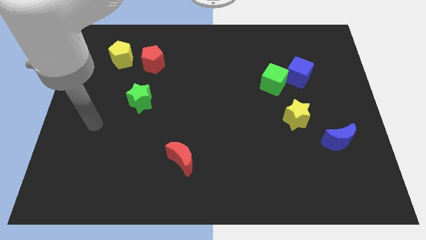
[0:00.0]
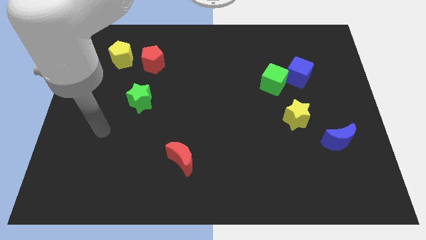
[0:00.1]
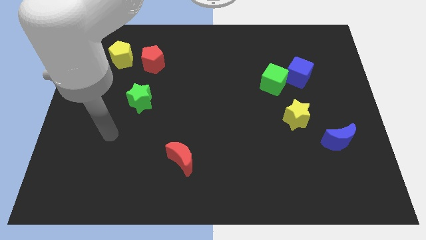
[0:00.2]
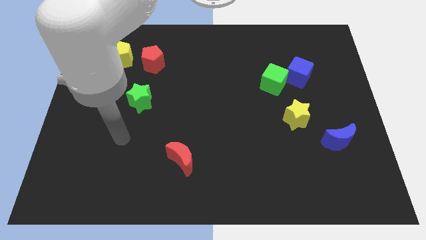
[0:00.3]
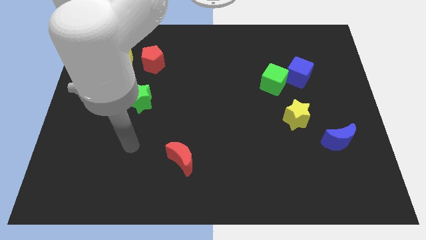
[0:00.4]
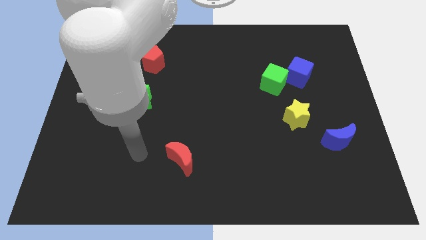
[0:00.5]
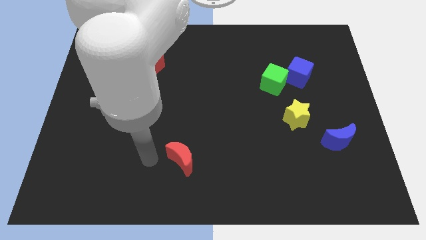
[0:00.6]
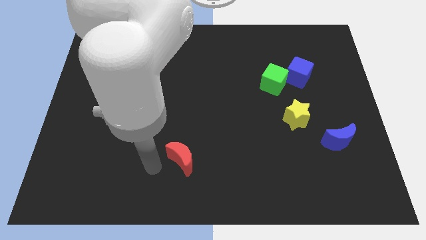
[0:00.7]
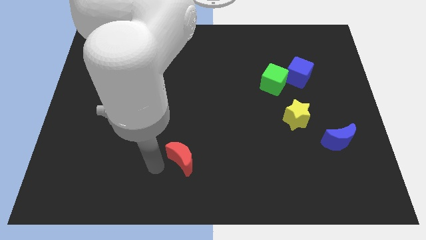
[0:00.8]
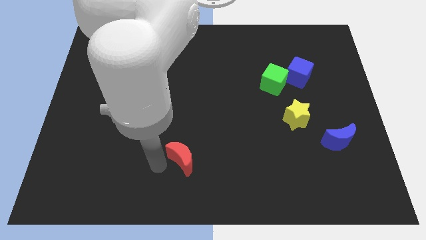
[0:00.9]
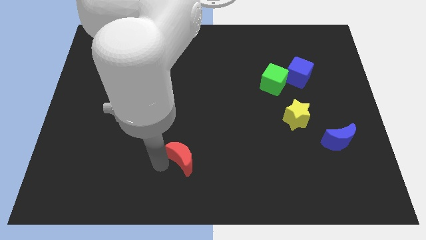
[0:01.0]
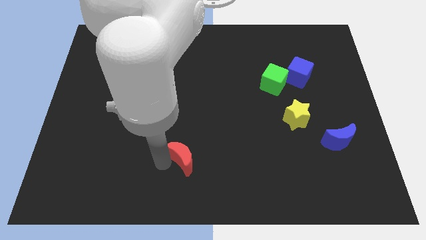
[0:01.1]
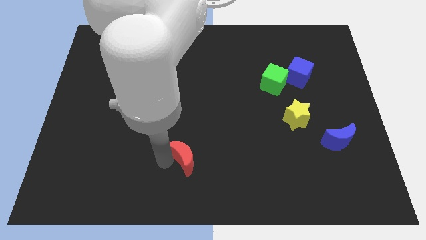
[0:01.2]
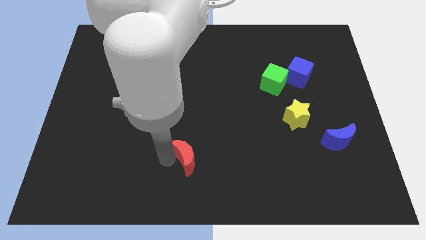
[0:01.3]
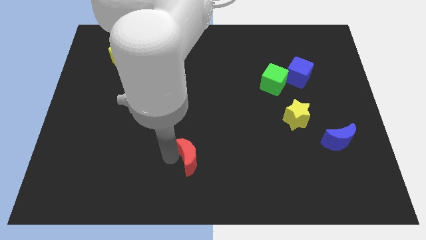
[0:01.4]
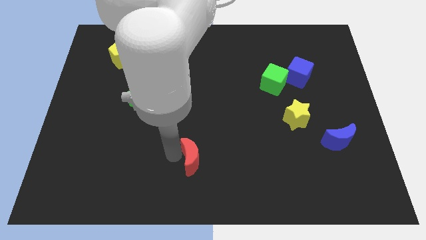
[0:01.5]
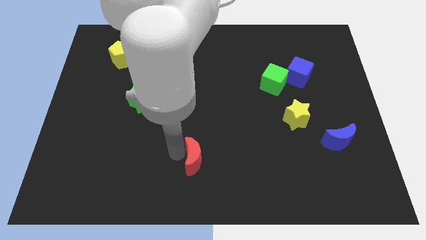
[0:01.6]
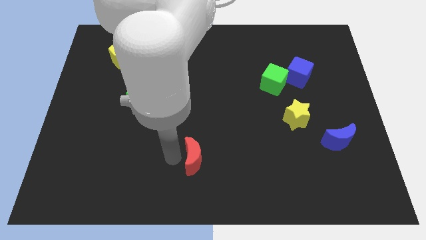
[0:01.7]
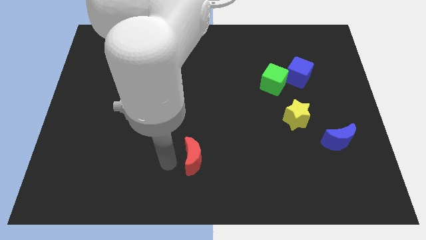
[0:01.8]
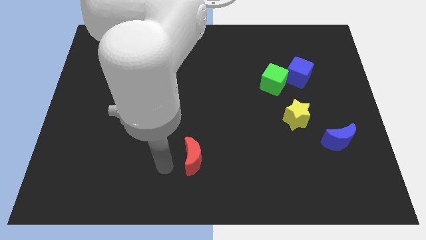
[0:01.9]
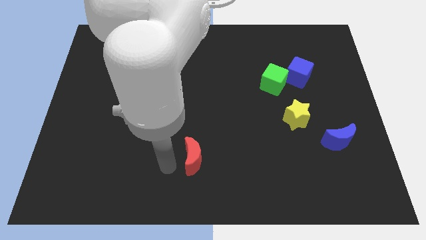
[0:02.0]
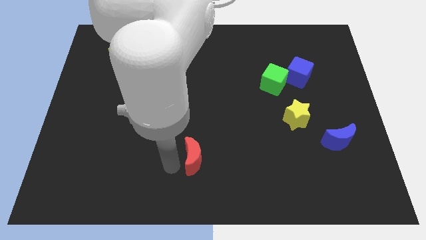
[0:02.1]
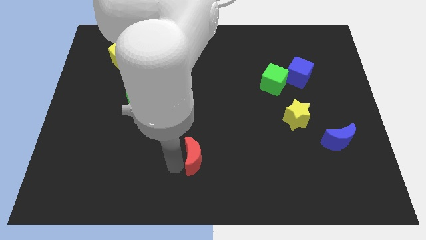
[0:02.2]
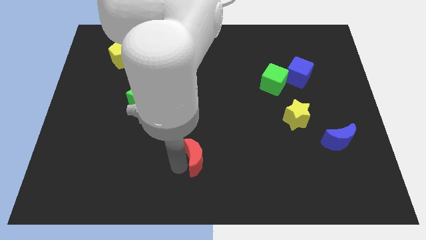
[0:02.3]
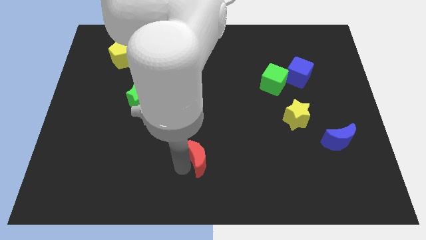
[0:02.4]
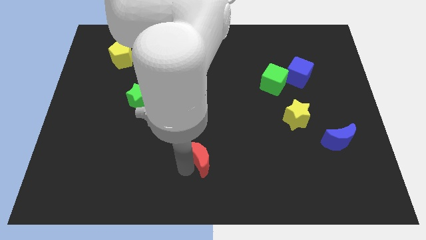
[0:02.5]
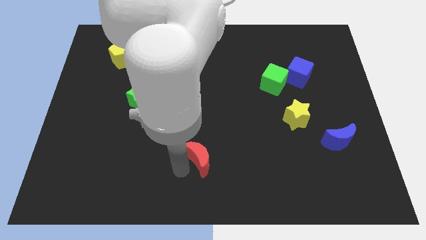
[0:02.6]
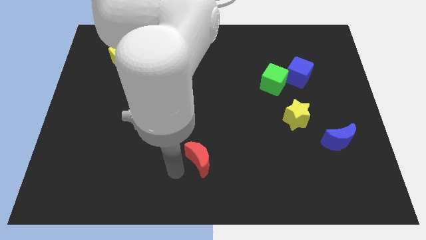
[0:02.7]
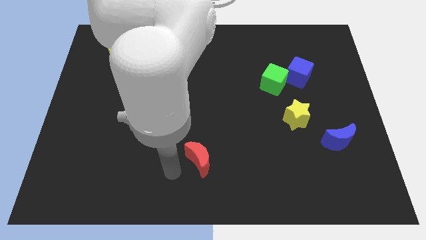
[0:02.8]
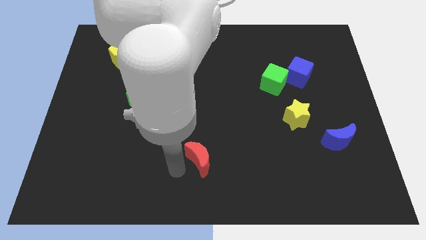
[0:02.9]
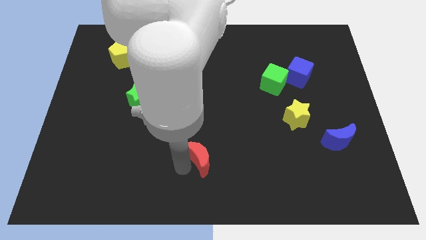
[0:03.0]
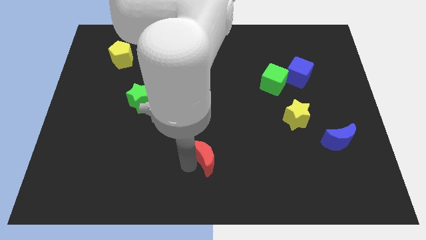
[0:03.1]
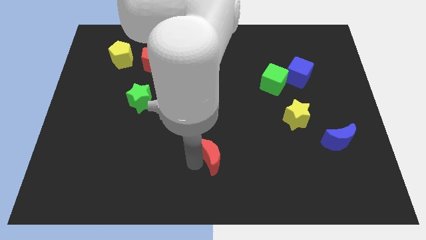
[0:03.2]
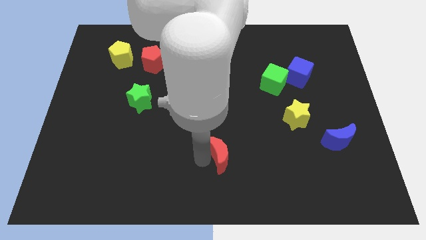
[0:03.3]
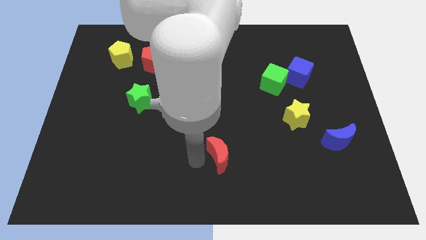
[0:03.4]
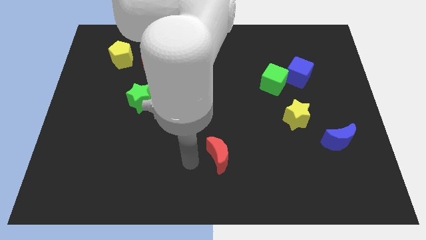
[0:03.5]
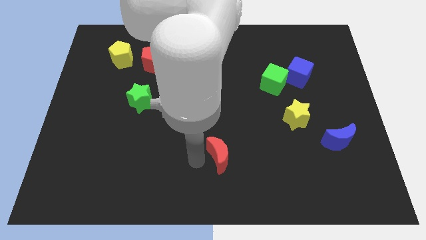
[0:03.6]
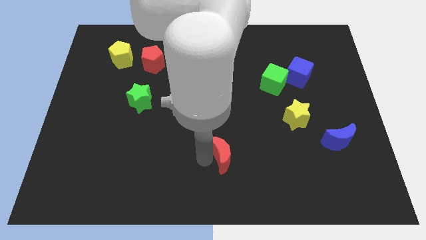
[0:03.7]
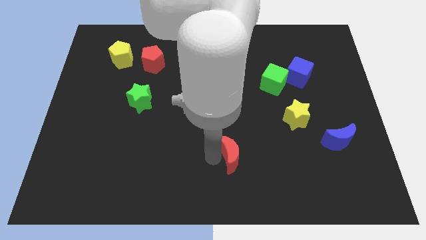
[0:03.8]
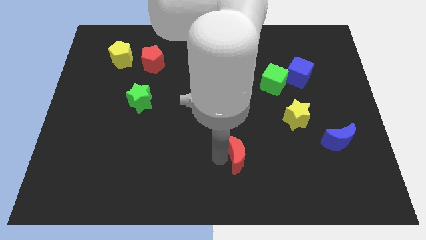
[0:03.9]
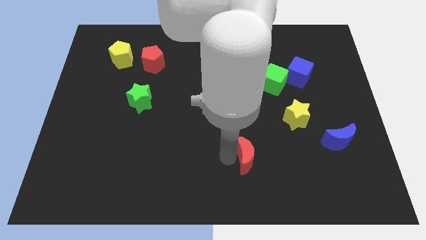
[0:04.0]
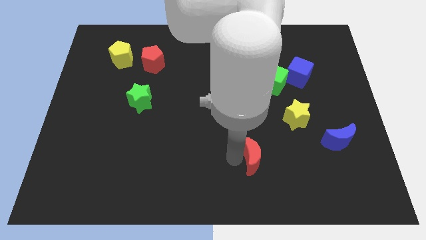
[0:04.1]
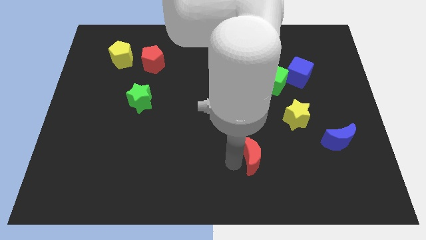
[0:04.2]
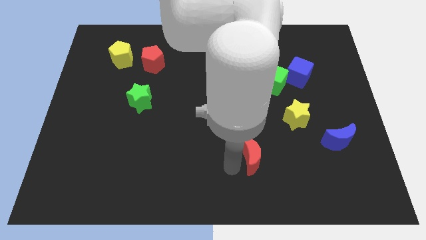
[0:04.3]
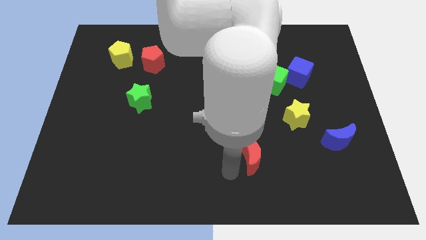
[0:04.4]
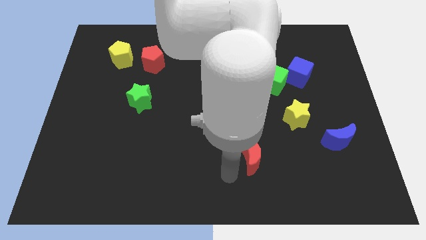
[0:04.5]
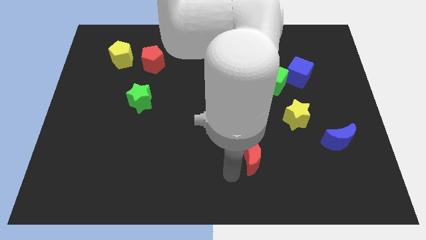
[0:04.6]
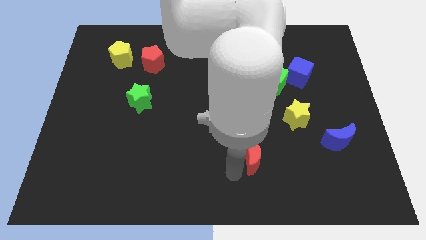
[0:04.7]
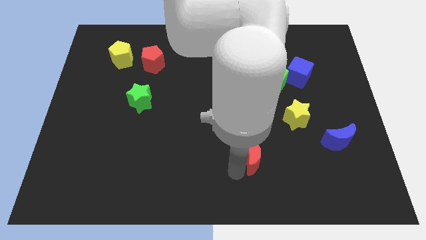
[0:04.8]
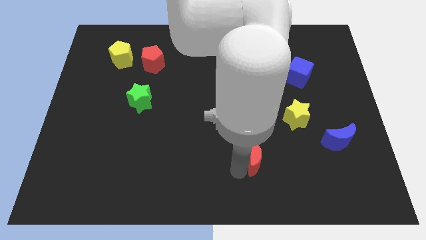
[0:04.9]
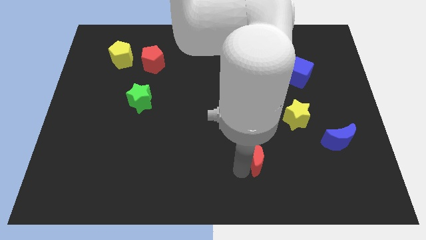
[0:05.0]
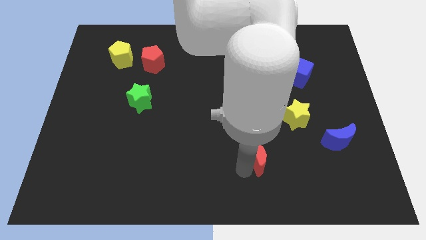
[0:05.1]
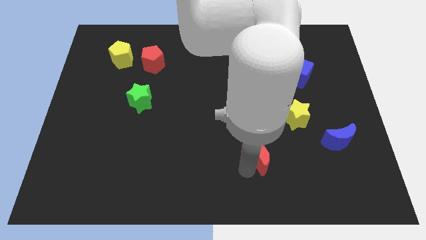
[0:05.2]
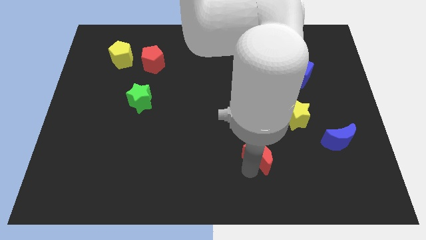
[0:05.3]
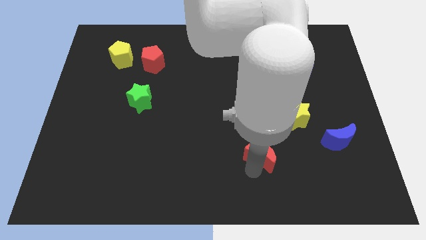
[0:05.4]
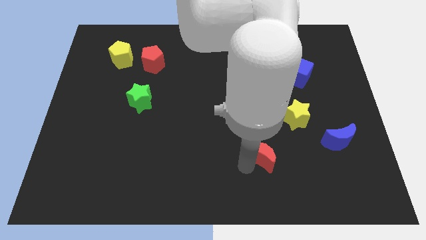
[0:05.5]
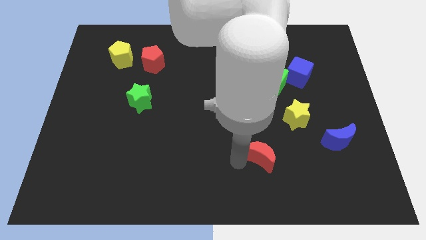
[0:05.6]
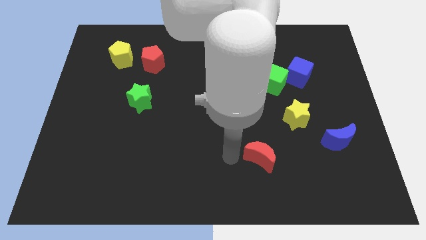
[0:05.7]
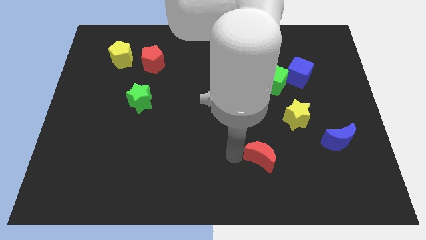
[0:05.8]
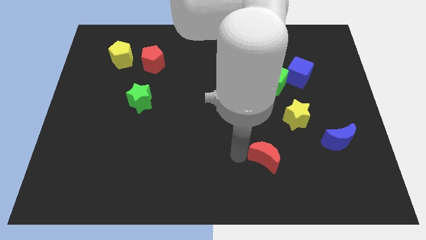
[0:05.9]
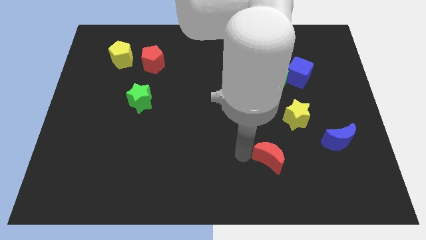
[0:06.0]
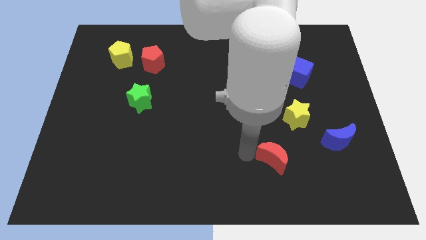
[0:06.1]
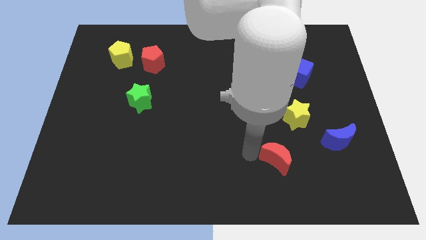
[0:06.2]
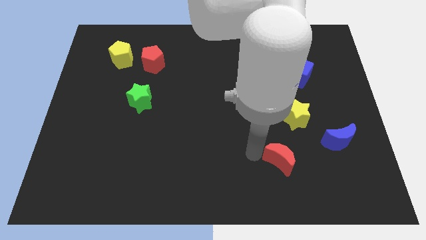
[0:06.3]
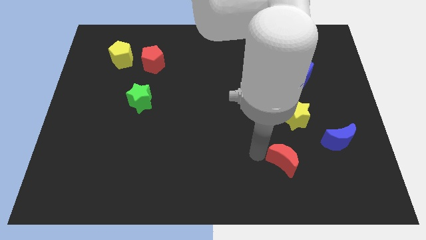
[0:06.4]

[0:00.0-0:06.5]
slide the red moon to the bottom side of the yellow star

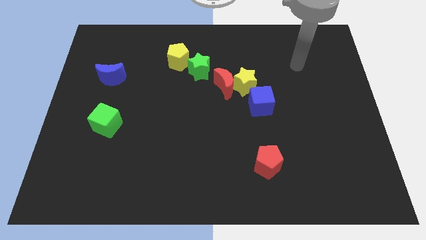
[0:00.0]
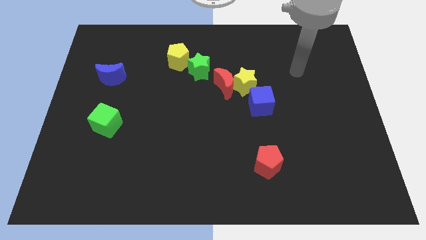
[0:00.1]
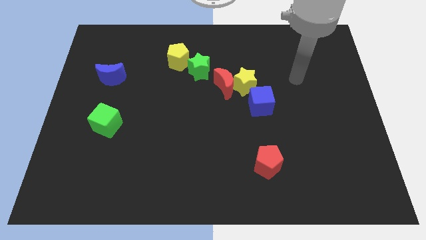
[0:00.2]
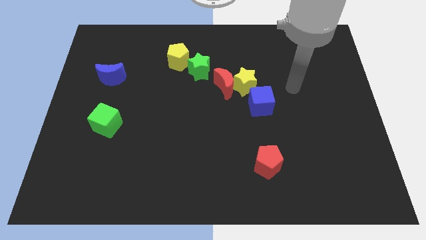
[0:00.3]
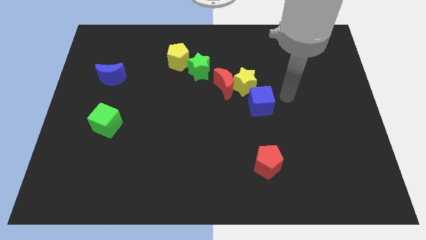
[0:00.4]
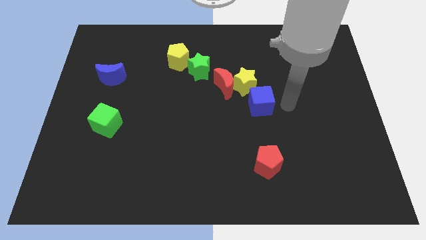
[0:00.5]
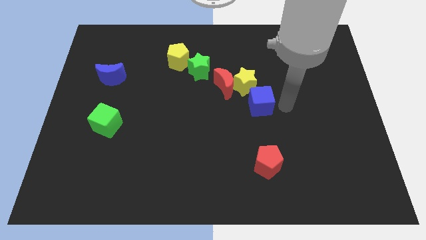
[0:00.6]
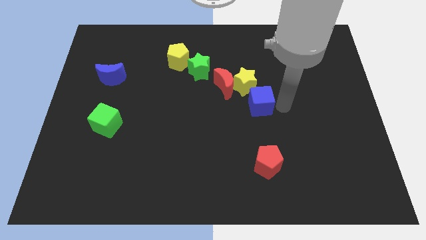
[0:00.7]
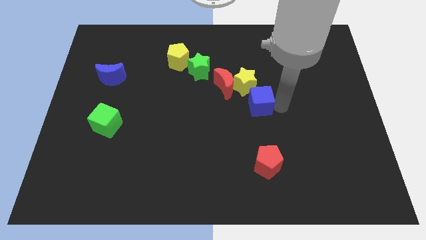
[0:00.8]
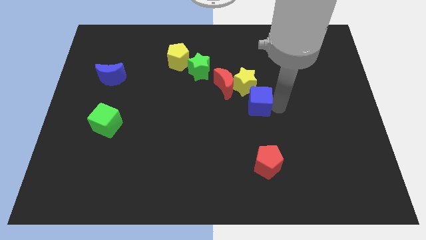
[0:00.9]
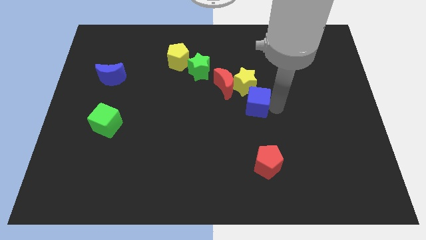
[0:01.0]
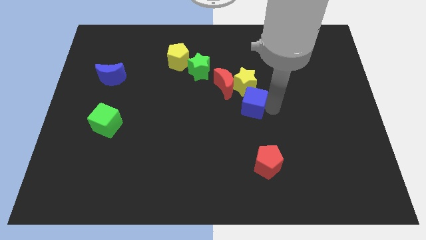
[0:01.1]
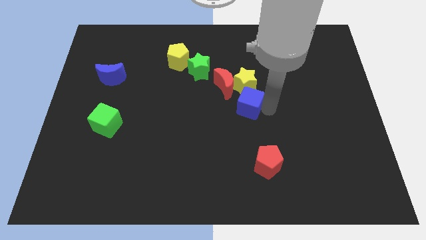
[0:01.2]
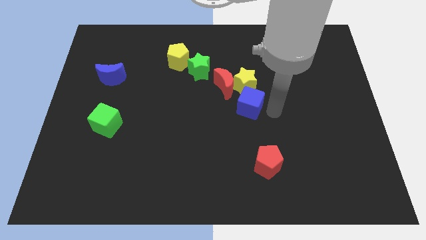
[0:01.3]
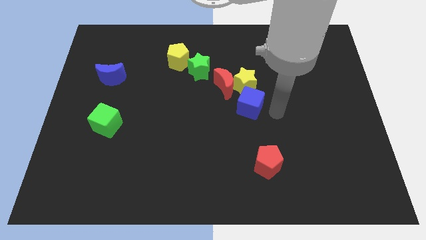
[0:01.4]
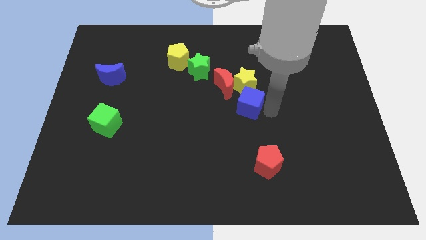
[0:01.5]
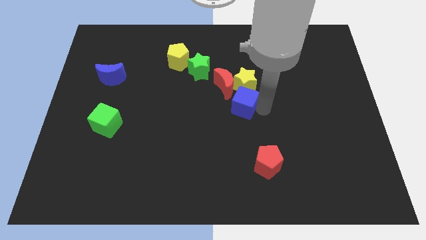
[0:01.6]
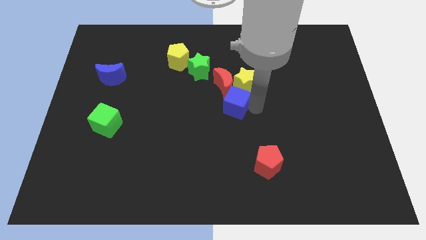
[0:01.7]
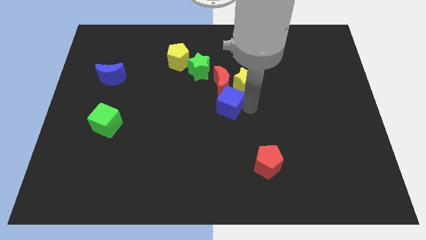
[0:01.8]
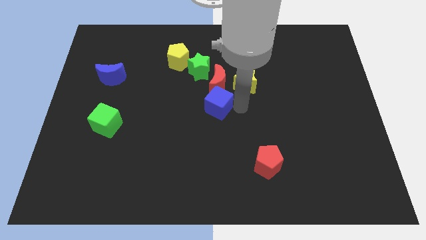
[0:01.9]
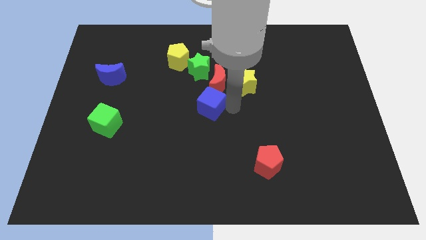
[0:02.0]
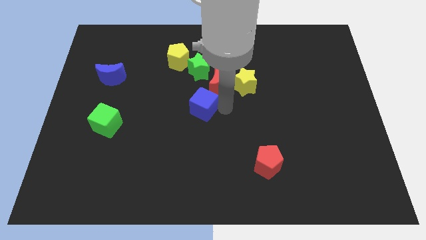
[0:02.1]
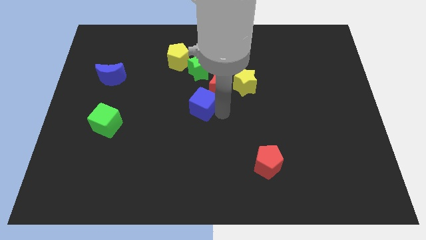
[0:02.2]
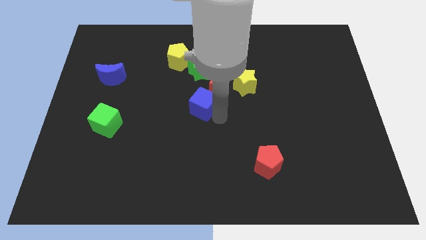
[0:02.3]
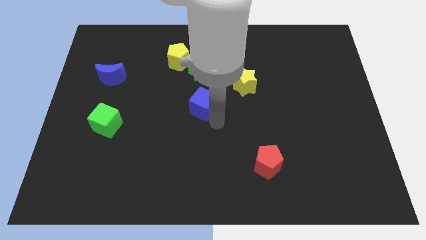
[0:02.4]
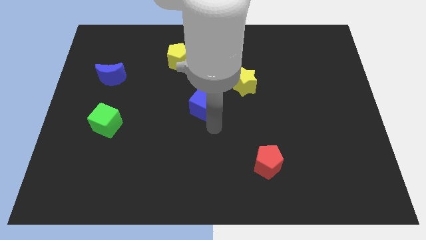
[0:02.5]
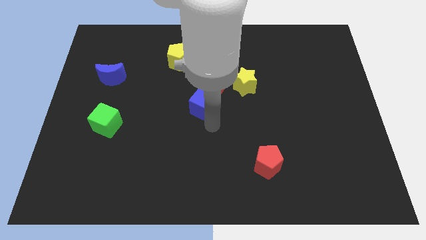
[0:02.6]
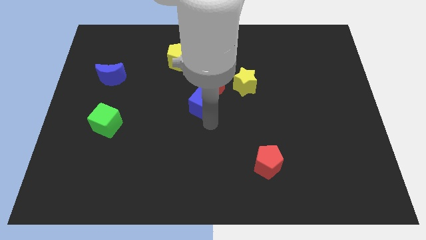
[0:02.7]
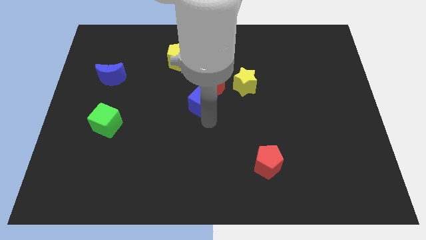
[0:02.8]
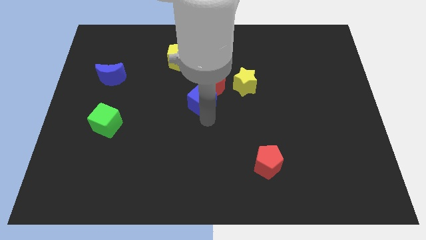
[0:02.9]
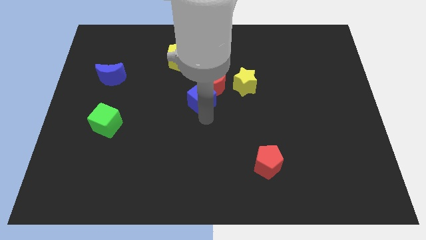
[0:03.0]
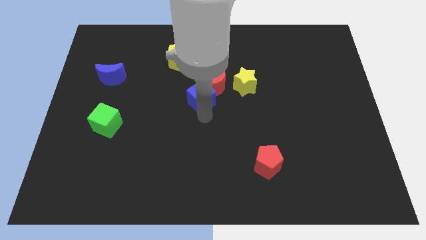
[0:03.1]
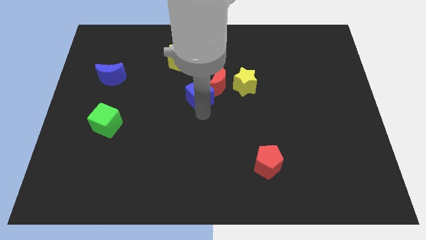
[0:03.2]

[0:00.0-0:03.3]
slide the blue cube to the left of the red moon
